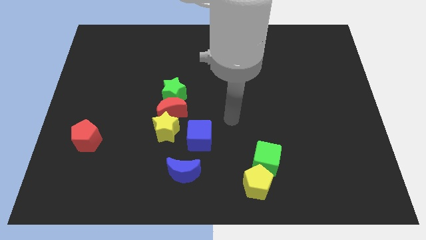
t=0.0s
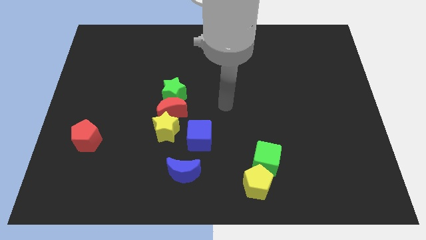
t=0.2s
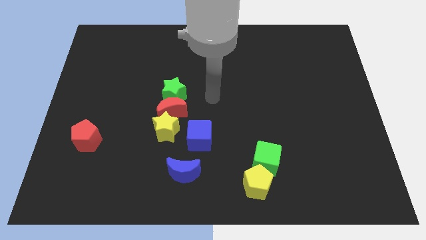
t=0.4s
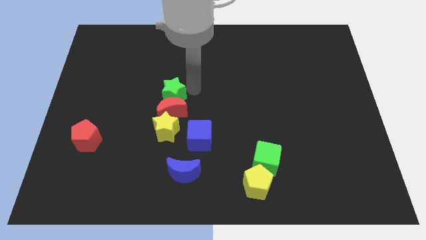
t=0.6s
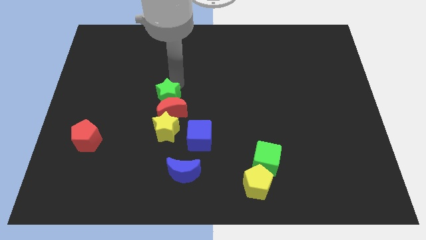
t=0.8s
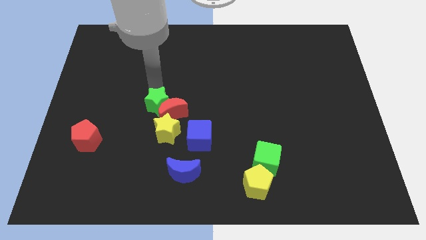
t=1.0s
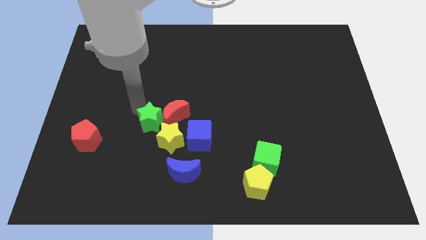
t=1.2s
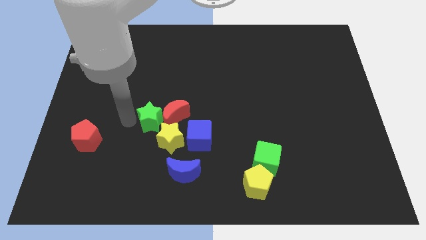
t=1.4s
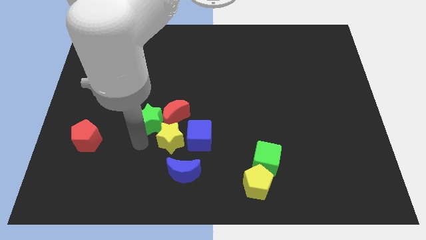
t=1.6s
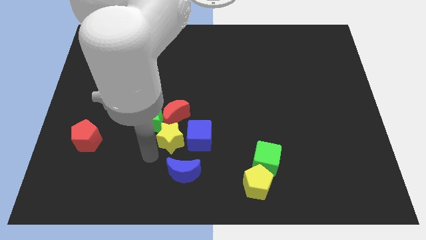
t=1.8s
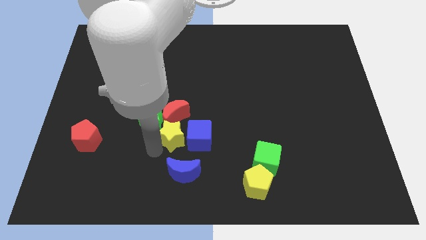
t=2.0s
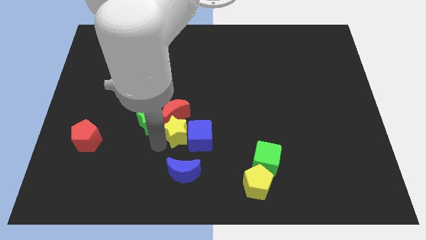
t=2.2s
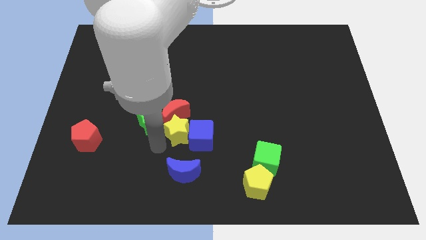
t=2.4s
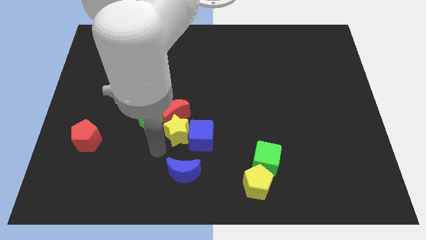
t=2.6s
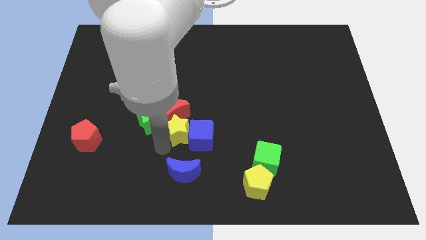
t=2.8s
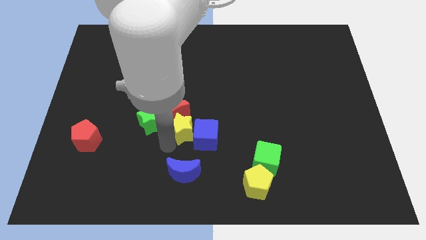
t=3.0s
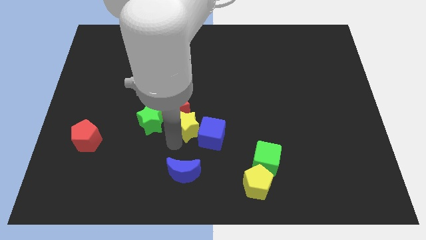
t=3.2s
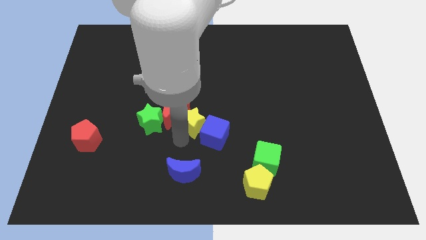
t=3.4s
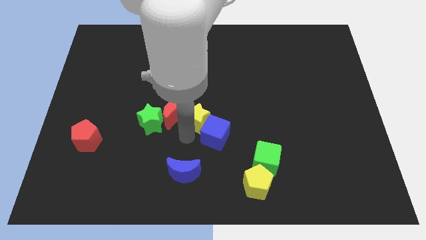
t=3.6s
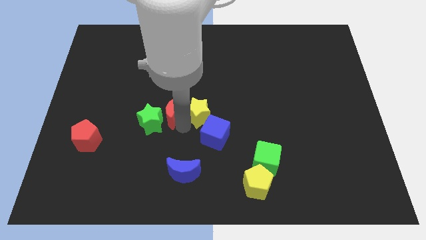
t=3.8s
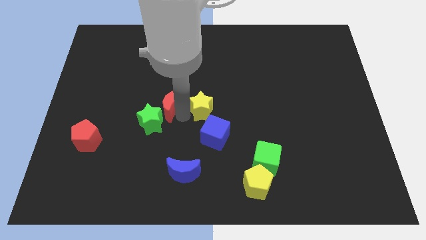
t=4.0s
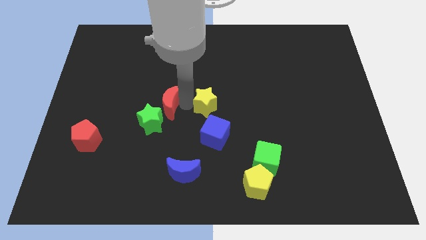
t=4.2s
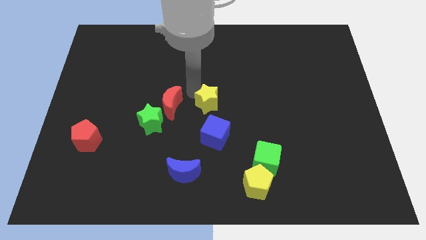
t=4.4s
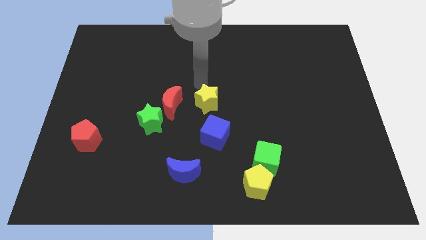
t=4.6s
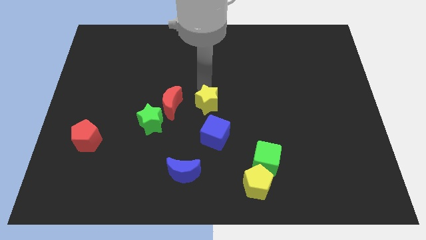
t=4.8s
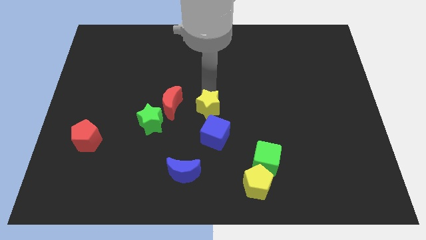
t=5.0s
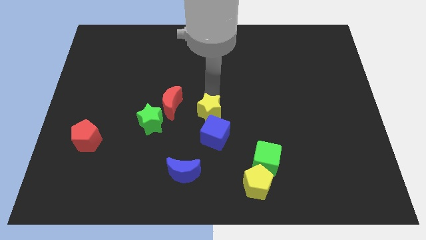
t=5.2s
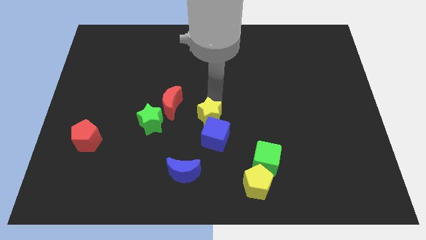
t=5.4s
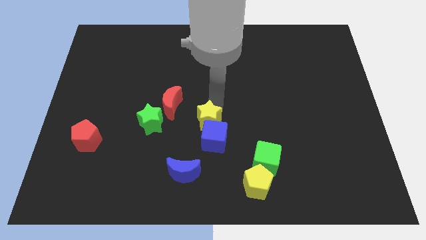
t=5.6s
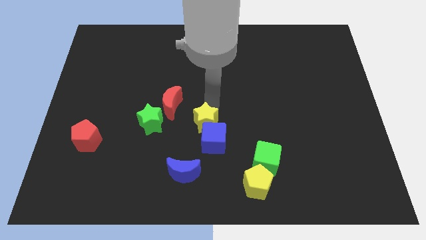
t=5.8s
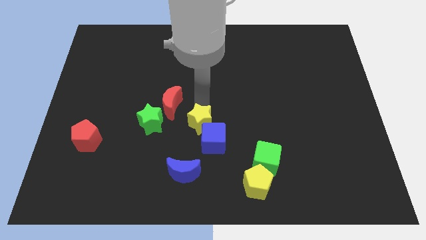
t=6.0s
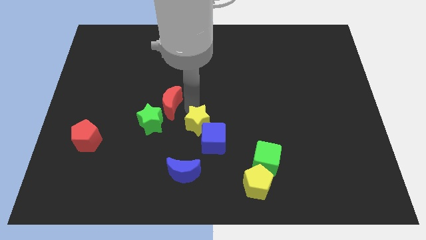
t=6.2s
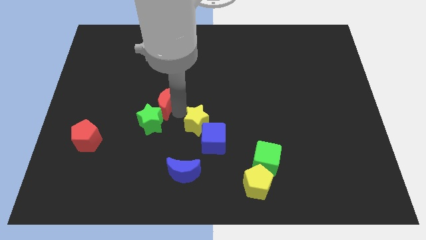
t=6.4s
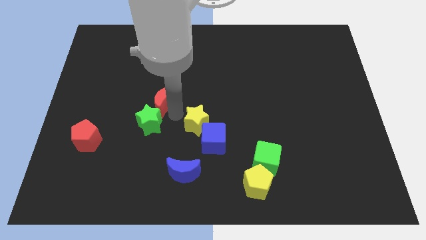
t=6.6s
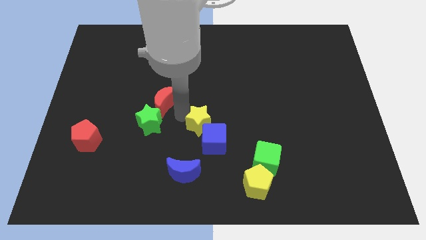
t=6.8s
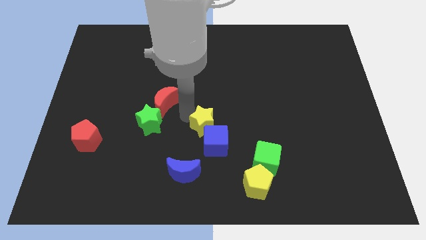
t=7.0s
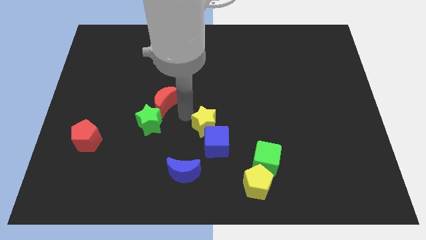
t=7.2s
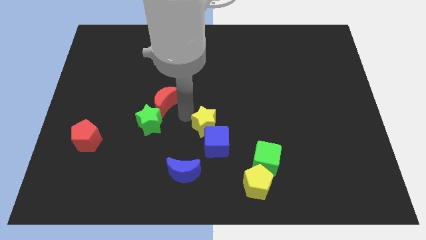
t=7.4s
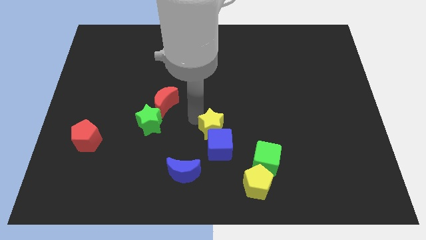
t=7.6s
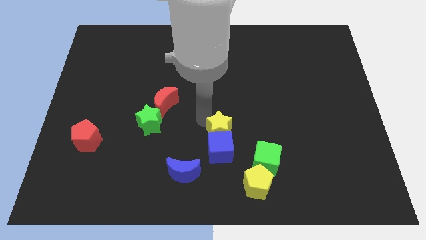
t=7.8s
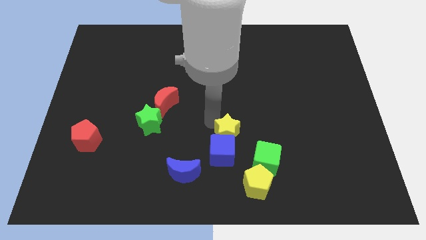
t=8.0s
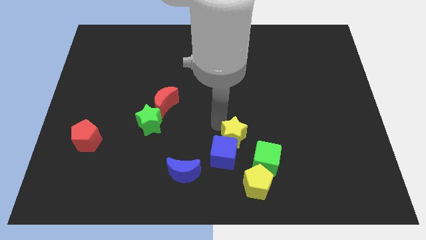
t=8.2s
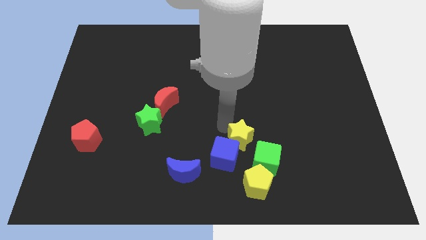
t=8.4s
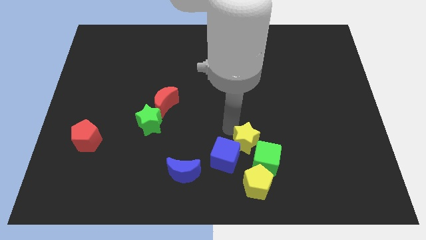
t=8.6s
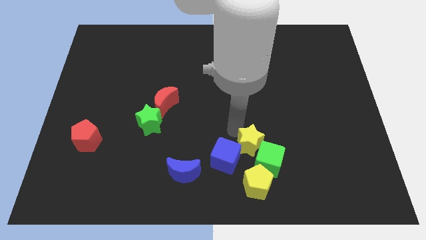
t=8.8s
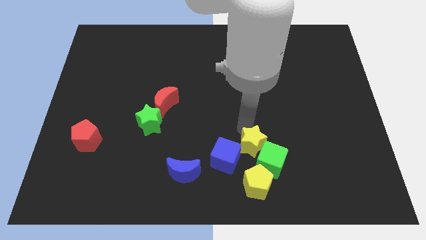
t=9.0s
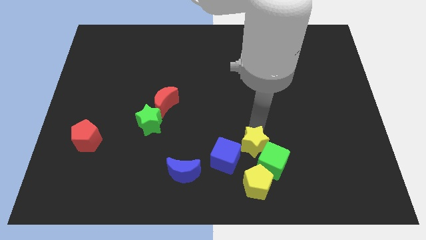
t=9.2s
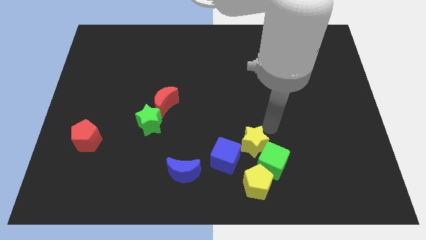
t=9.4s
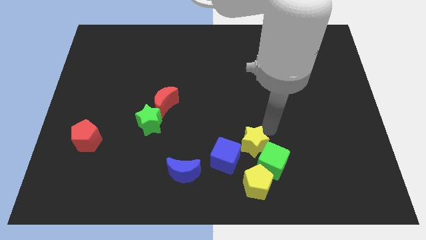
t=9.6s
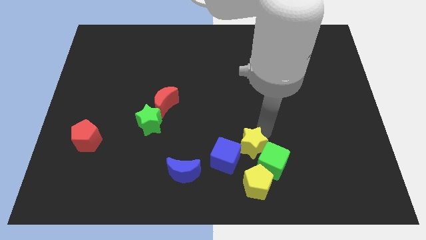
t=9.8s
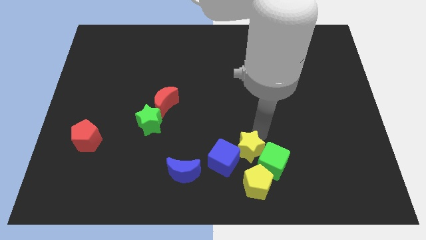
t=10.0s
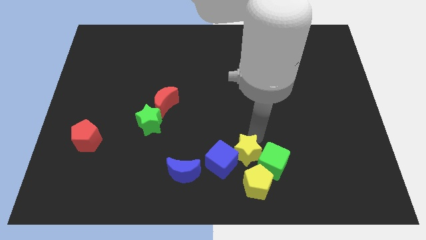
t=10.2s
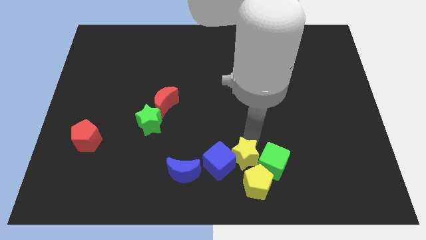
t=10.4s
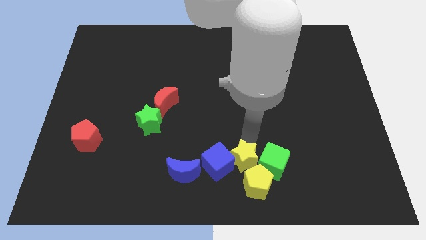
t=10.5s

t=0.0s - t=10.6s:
slide the yellow star towards the yellow pentagon

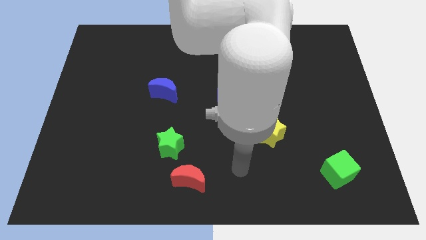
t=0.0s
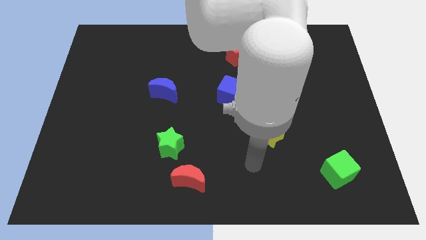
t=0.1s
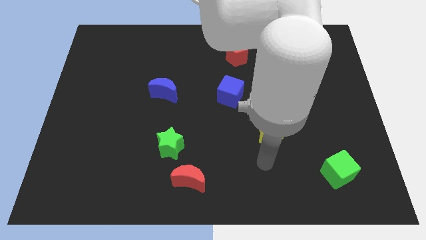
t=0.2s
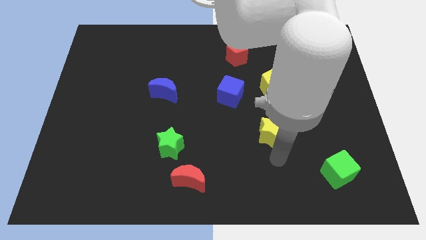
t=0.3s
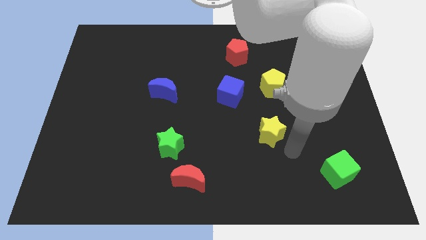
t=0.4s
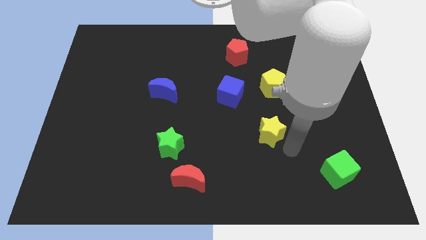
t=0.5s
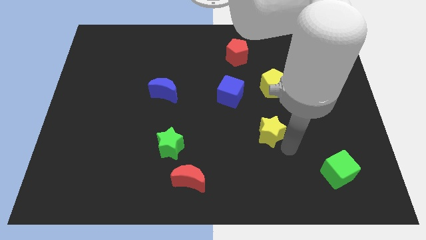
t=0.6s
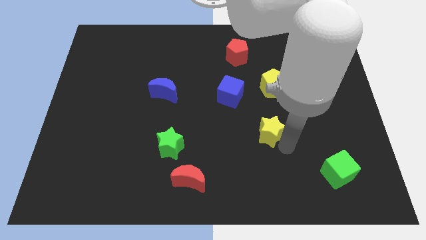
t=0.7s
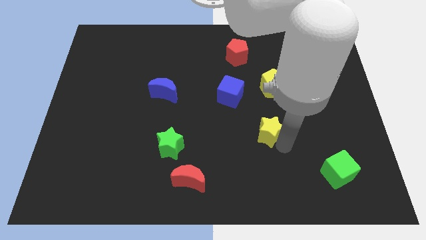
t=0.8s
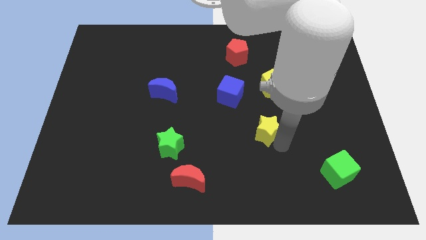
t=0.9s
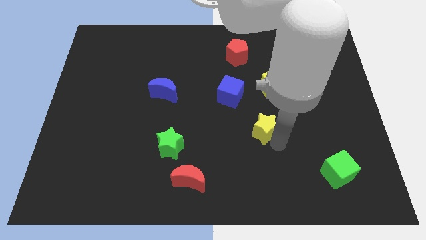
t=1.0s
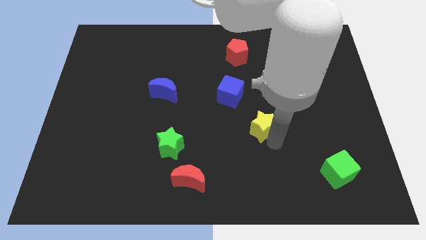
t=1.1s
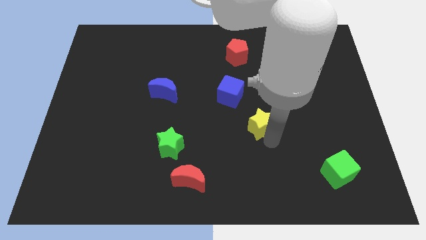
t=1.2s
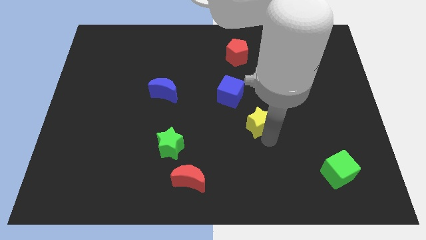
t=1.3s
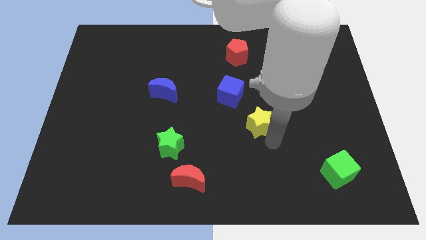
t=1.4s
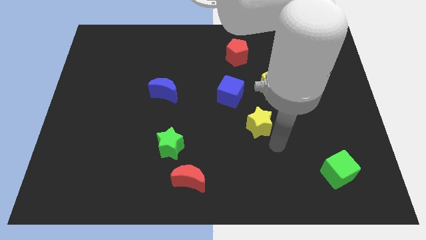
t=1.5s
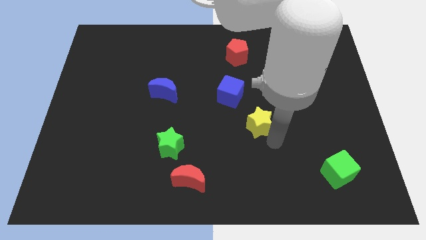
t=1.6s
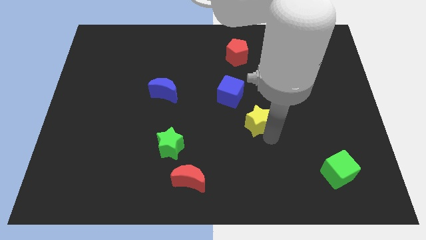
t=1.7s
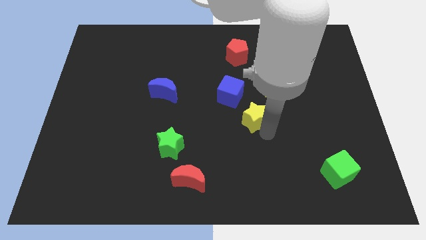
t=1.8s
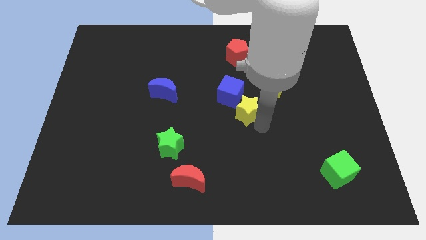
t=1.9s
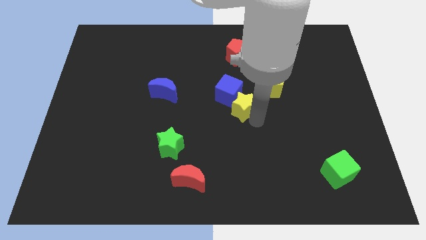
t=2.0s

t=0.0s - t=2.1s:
move the yellow star next to the blue cube
